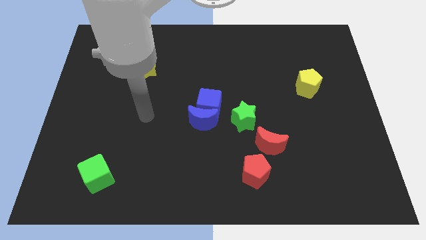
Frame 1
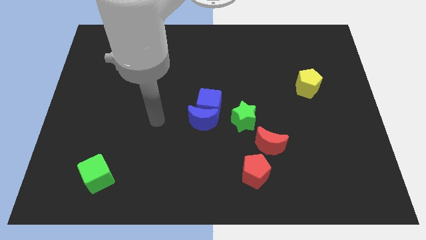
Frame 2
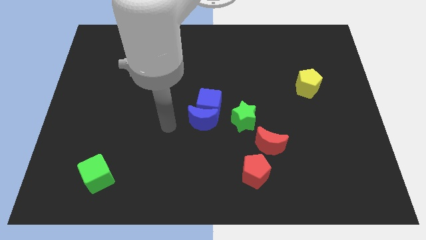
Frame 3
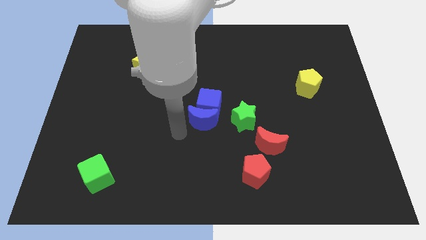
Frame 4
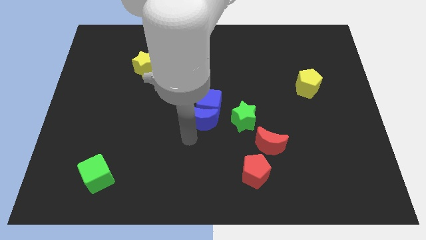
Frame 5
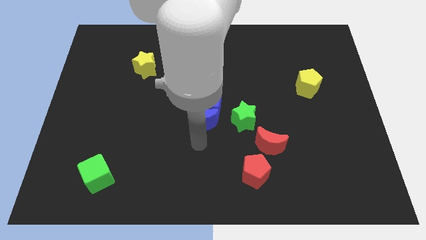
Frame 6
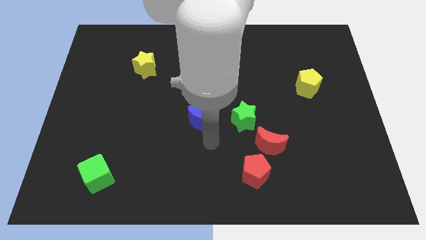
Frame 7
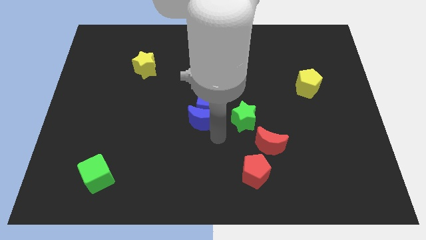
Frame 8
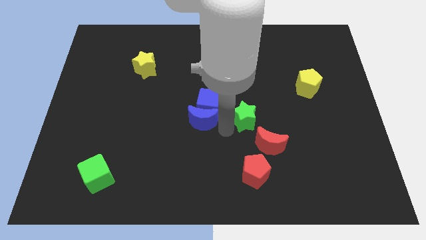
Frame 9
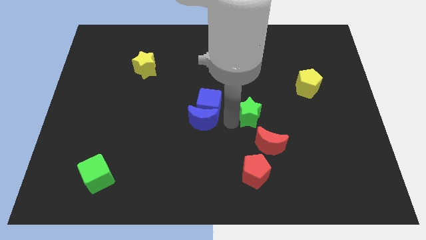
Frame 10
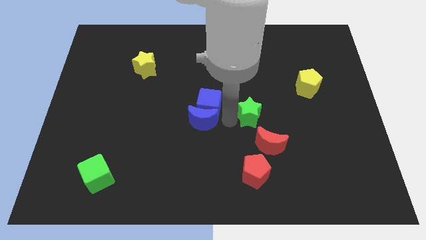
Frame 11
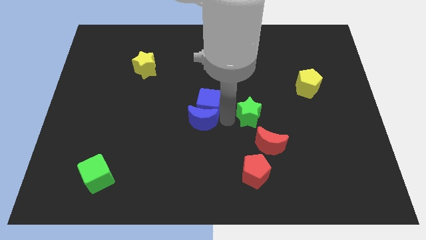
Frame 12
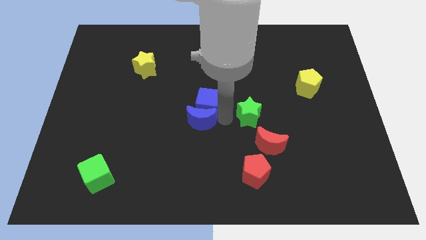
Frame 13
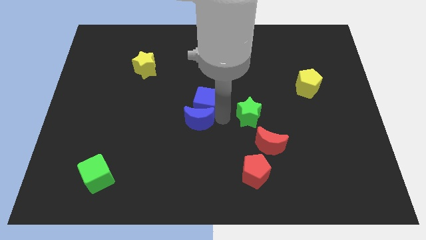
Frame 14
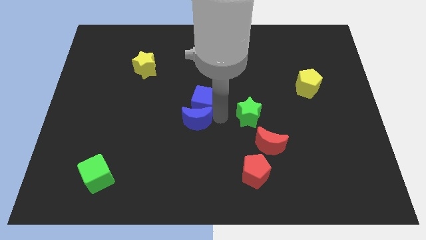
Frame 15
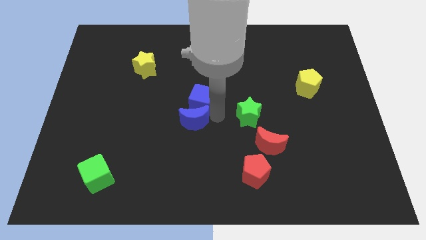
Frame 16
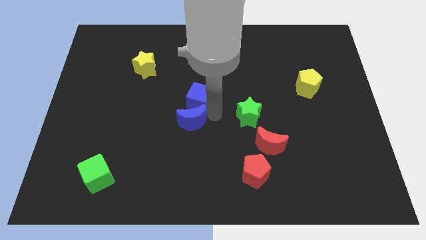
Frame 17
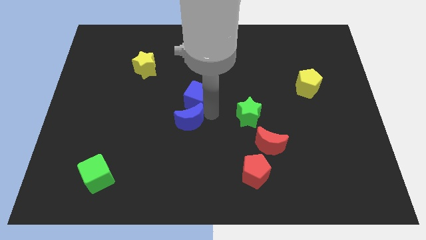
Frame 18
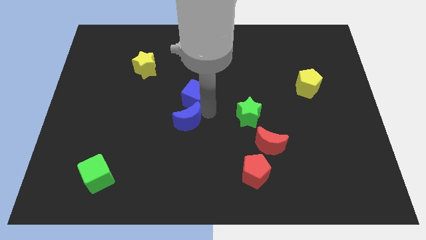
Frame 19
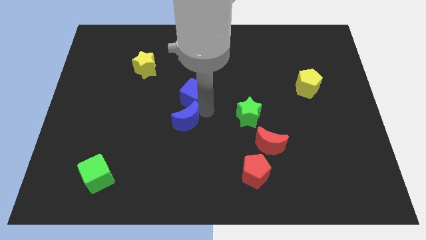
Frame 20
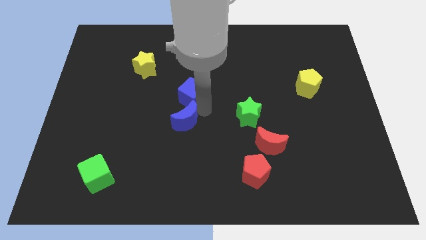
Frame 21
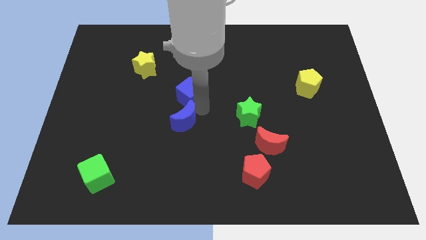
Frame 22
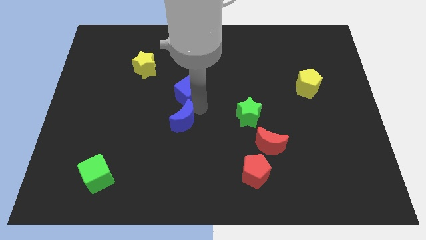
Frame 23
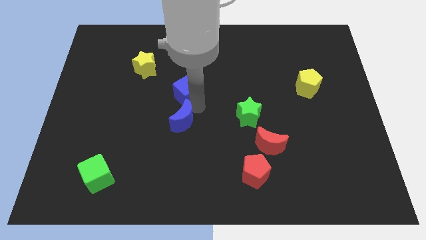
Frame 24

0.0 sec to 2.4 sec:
pull the blue cube apart from the blue moon and green star

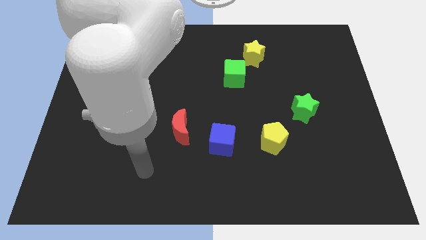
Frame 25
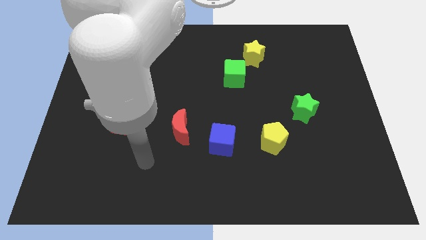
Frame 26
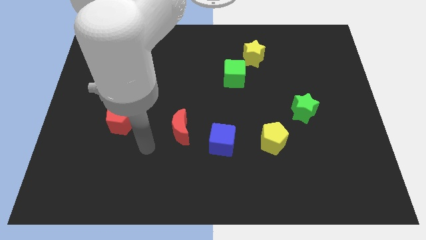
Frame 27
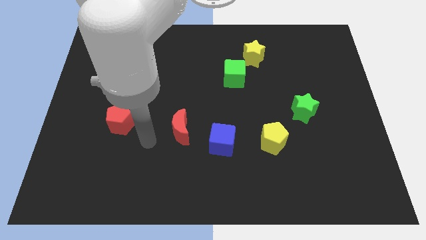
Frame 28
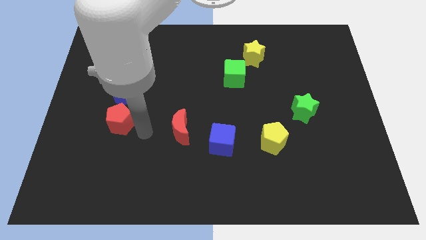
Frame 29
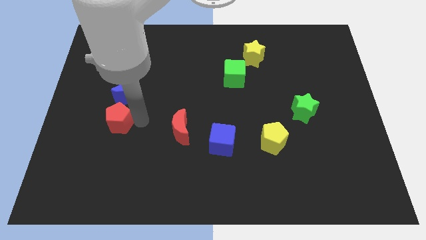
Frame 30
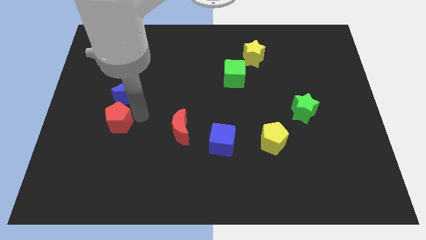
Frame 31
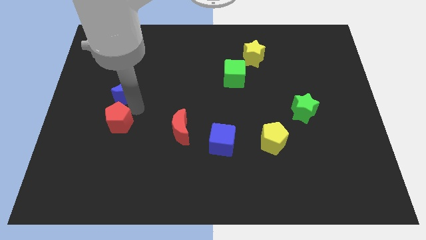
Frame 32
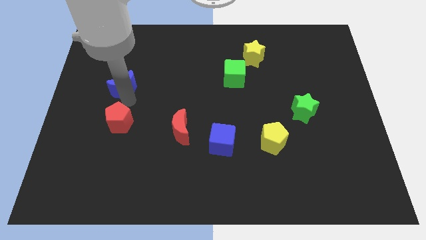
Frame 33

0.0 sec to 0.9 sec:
separate the red pentagon from the blue moon

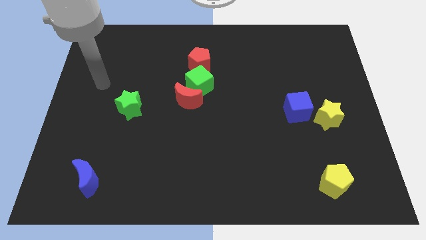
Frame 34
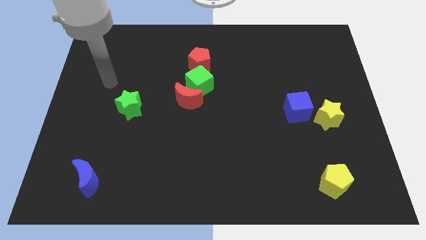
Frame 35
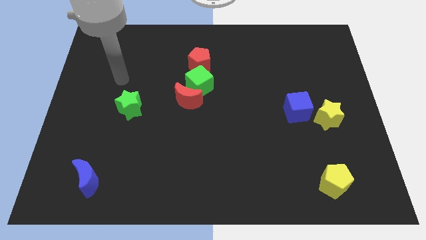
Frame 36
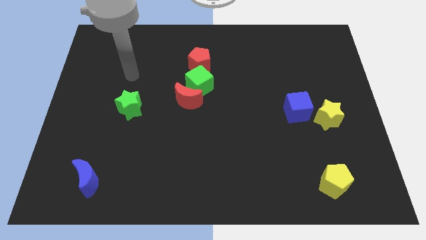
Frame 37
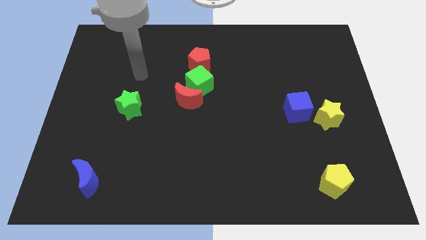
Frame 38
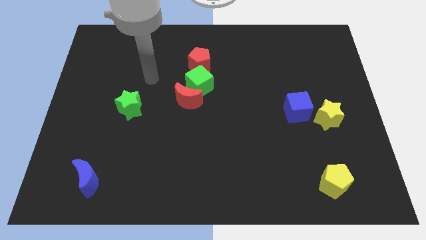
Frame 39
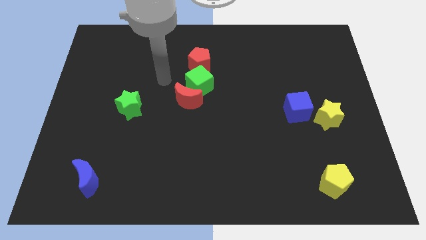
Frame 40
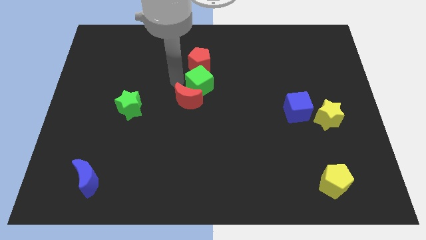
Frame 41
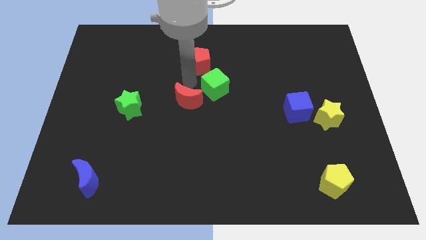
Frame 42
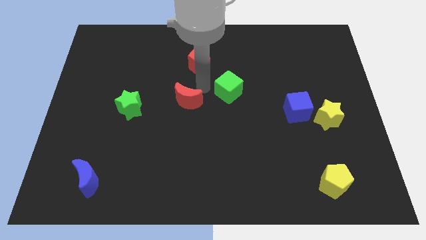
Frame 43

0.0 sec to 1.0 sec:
separate the red moon from the green cube

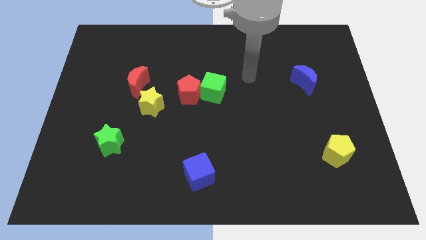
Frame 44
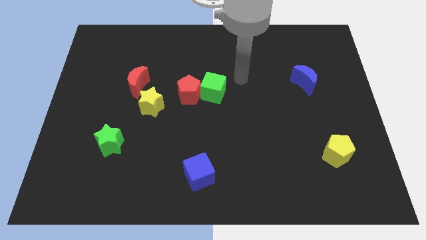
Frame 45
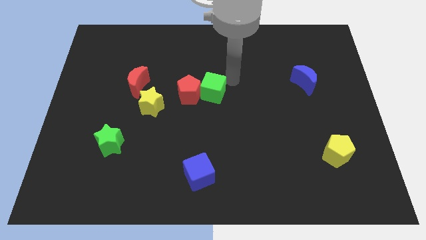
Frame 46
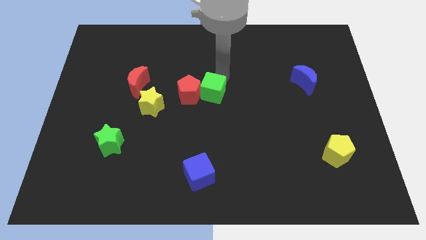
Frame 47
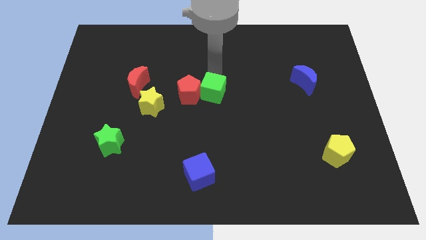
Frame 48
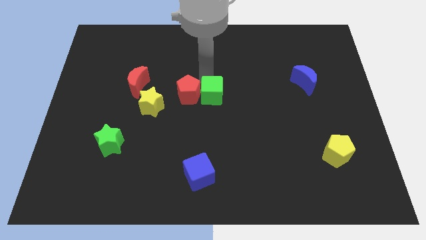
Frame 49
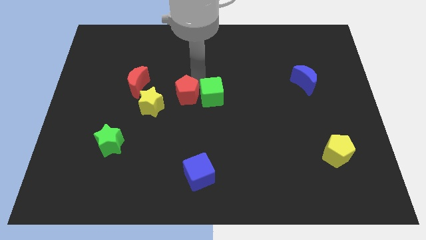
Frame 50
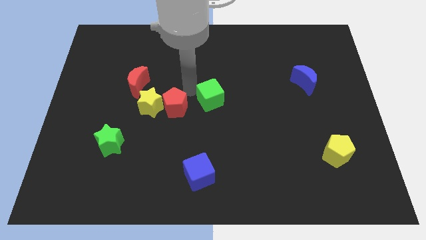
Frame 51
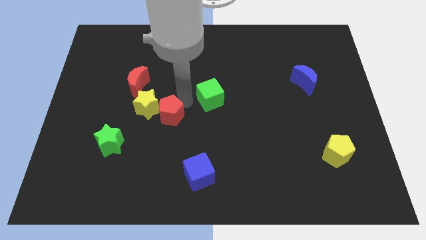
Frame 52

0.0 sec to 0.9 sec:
separate the green cube from the red pentagon

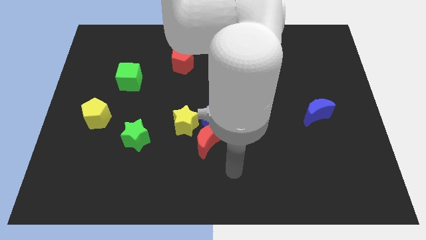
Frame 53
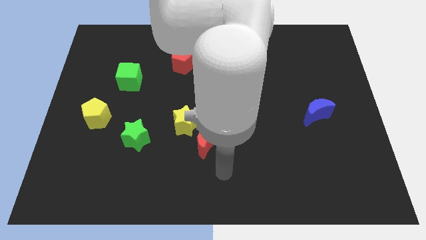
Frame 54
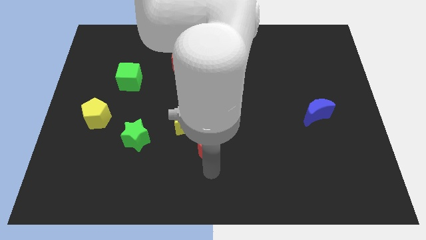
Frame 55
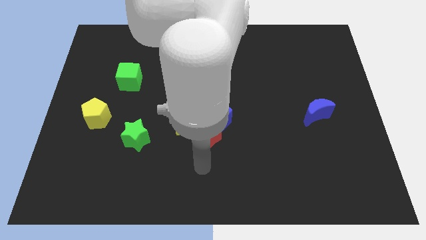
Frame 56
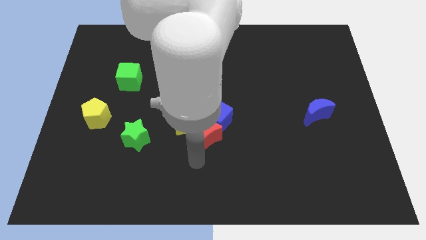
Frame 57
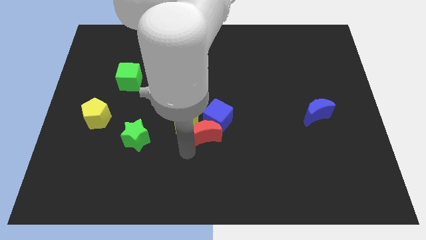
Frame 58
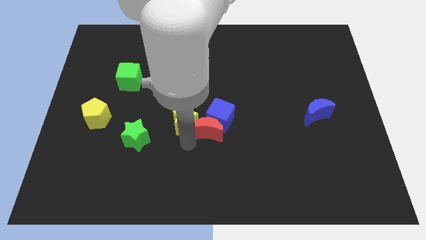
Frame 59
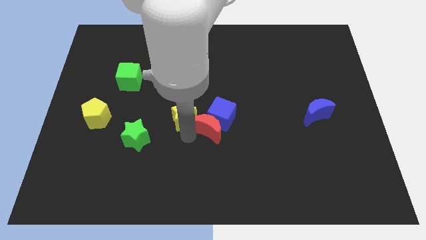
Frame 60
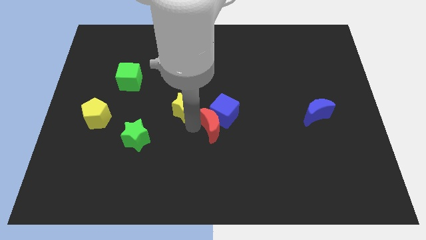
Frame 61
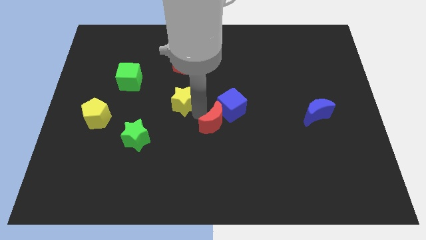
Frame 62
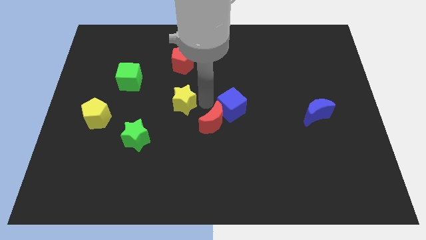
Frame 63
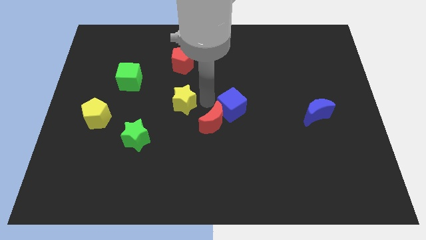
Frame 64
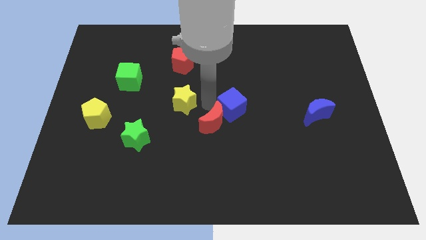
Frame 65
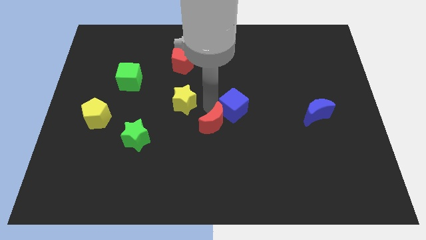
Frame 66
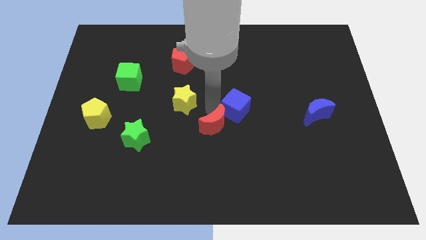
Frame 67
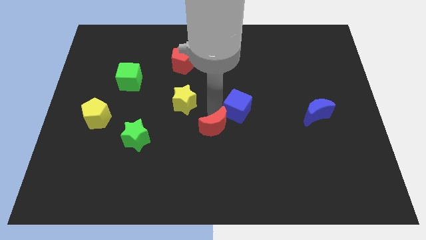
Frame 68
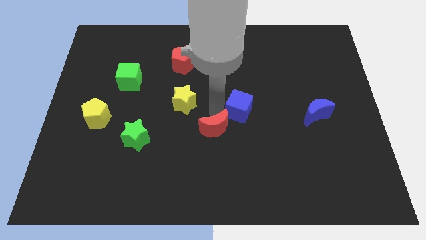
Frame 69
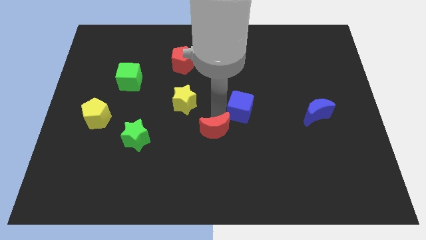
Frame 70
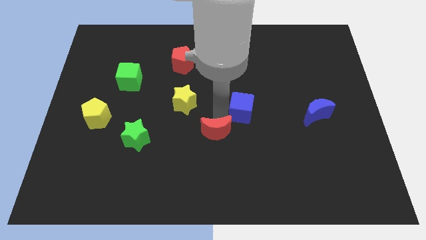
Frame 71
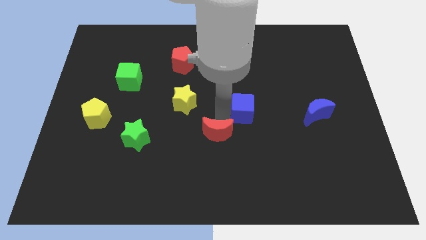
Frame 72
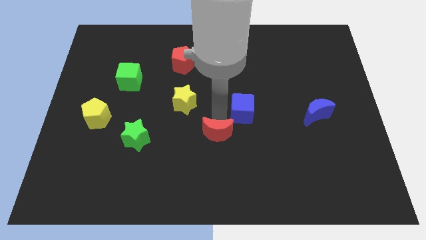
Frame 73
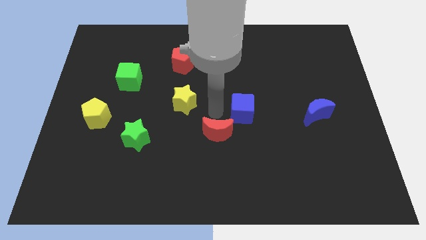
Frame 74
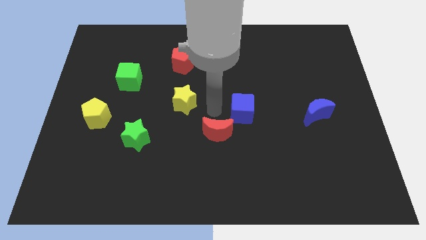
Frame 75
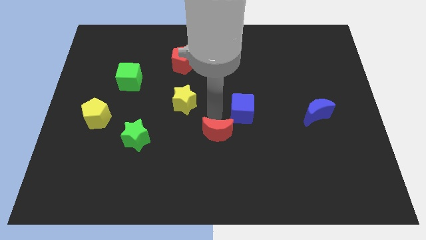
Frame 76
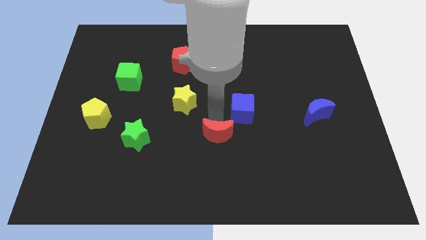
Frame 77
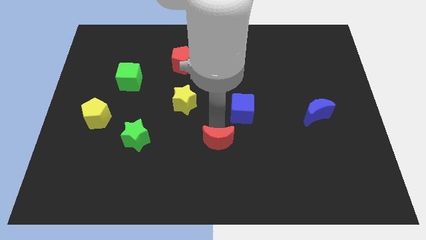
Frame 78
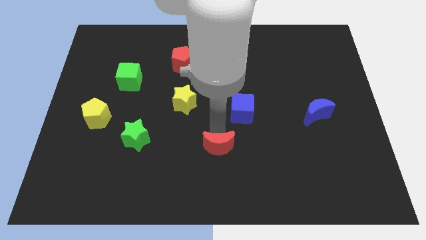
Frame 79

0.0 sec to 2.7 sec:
pull the red moon apart from the blue cube and yellow star

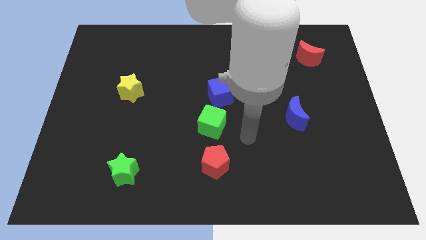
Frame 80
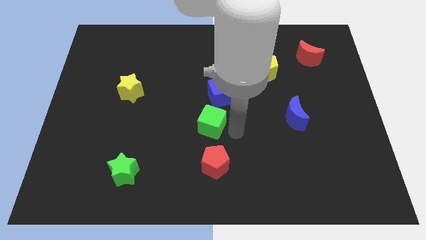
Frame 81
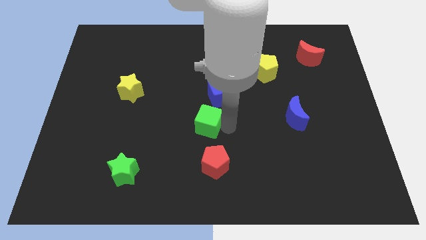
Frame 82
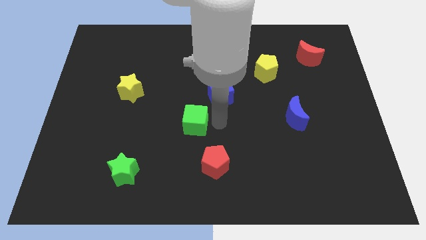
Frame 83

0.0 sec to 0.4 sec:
move the blue cube away from the green cube

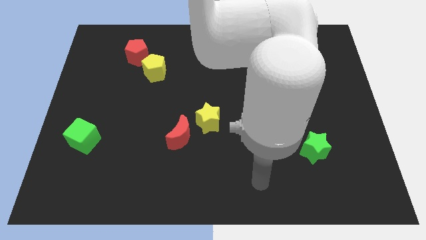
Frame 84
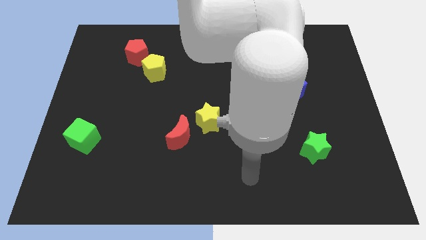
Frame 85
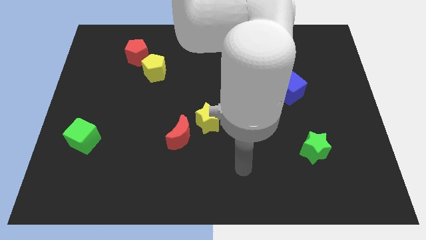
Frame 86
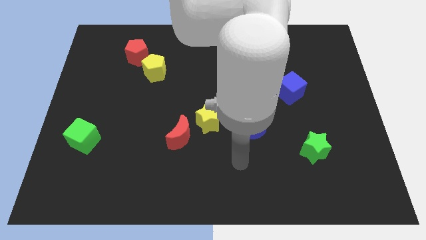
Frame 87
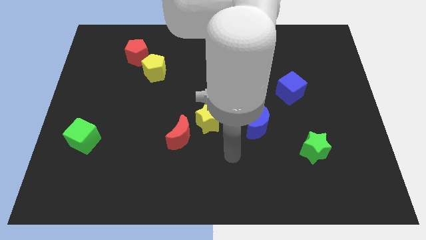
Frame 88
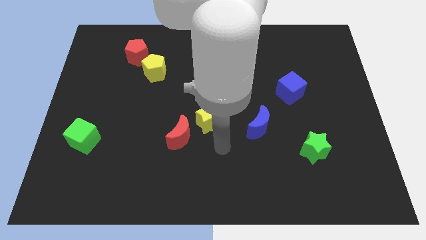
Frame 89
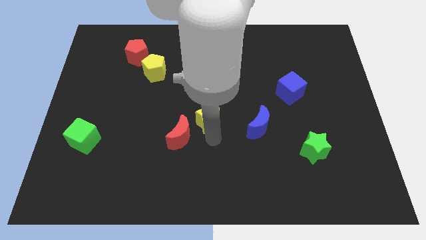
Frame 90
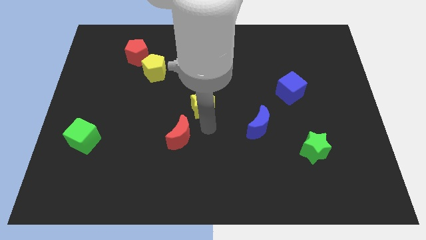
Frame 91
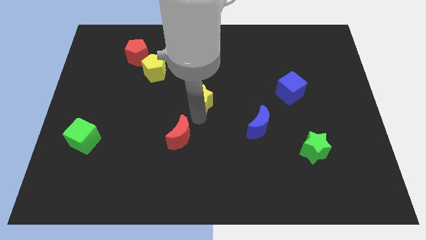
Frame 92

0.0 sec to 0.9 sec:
pull the red moon apart from the yellow star

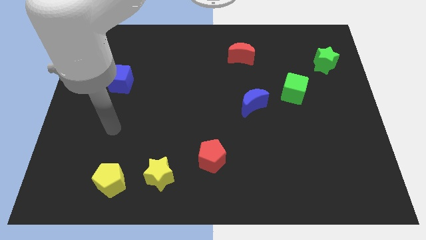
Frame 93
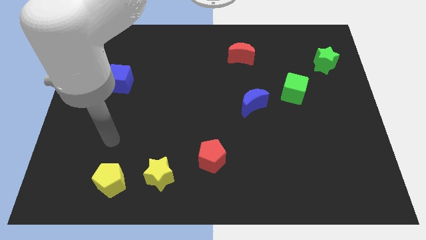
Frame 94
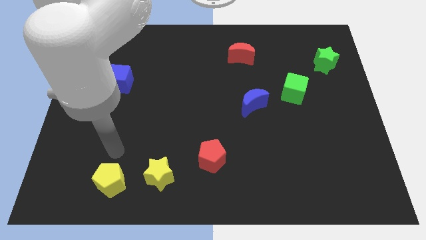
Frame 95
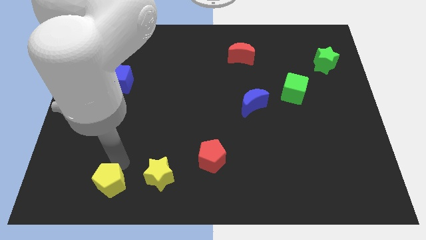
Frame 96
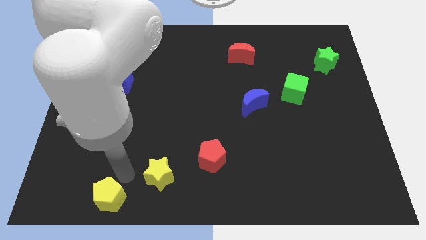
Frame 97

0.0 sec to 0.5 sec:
separate the yellow star from the yellow pentagon
